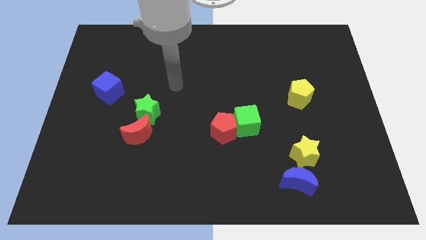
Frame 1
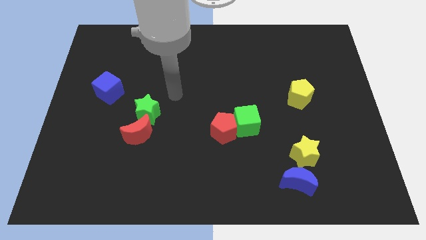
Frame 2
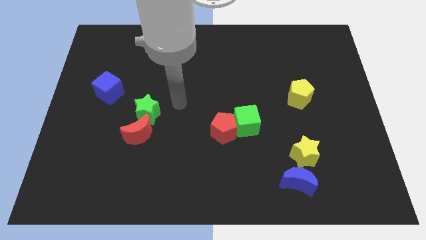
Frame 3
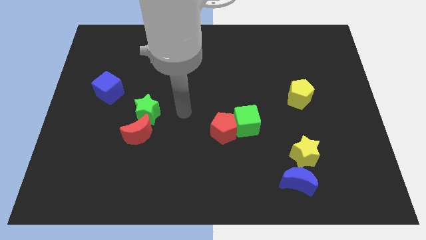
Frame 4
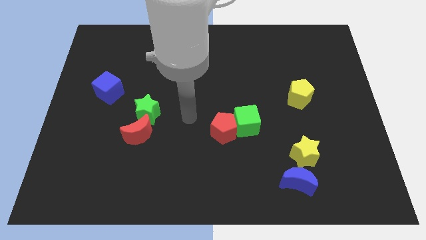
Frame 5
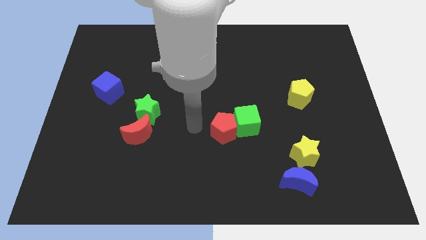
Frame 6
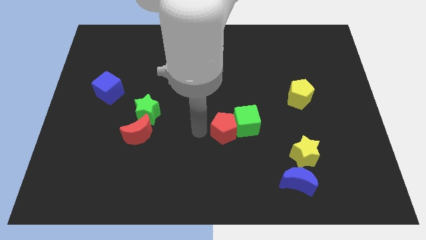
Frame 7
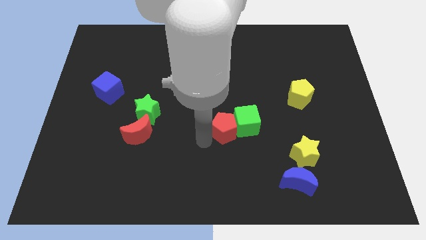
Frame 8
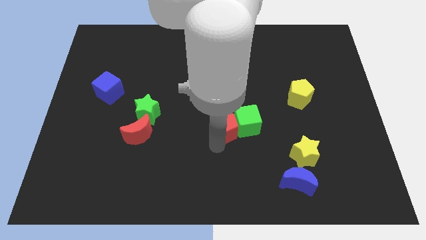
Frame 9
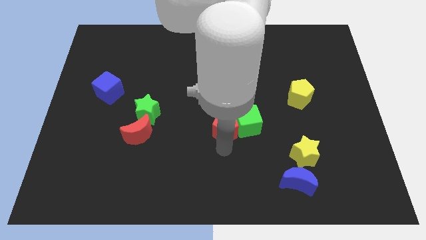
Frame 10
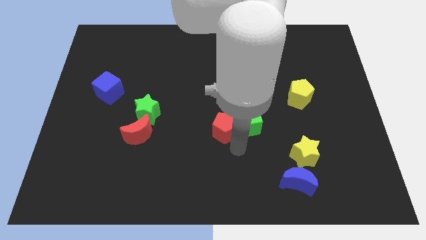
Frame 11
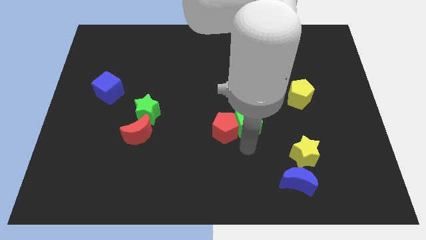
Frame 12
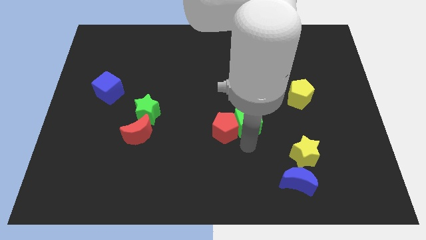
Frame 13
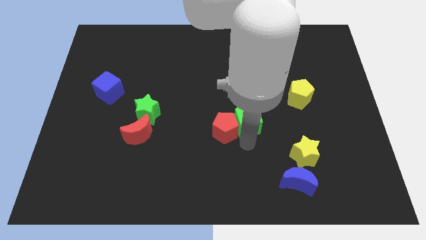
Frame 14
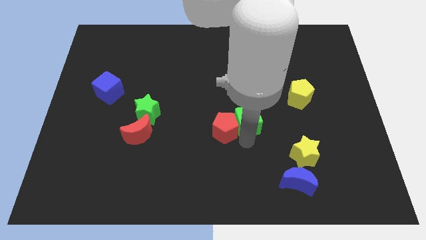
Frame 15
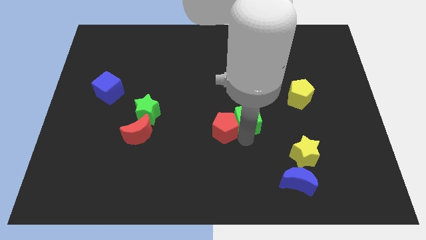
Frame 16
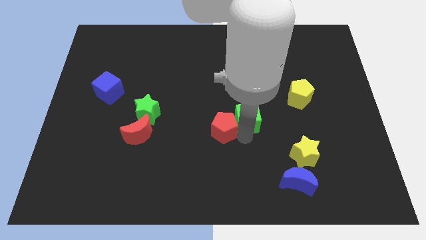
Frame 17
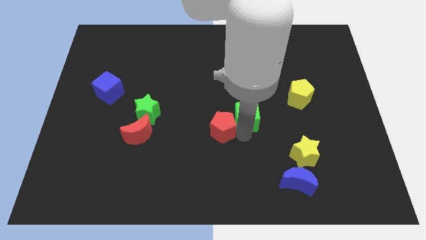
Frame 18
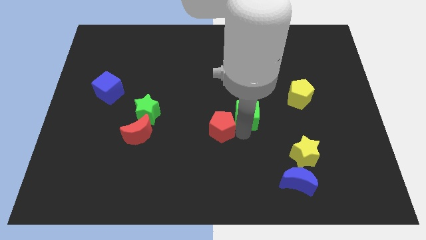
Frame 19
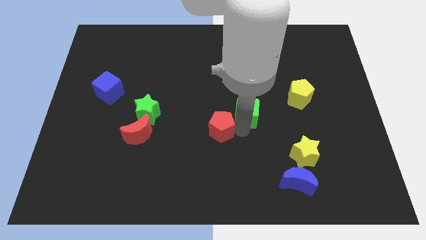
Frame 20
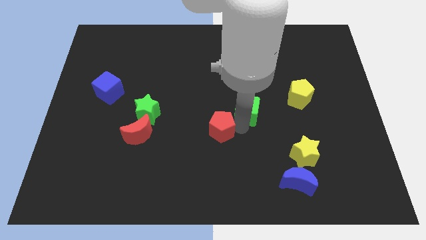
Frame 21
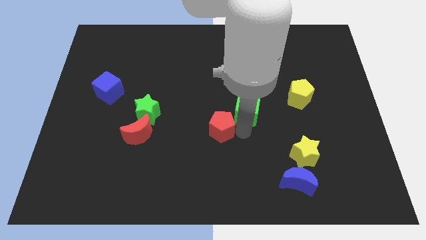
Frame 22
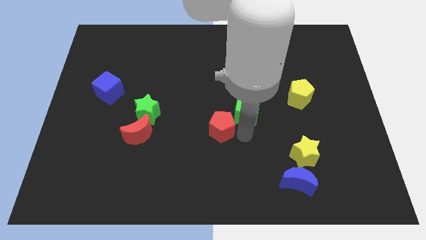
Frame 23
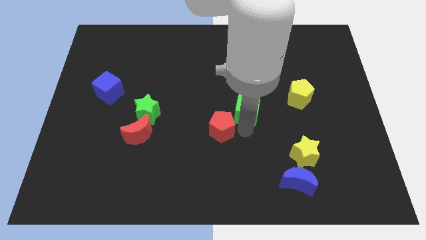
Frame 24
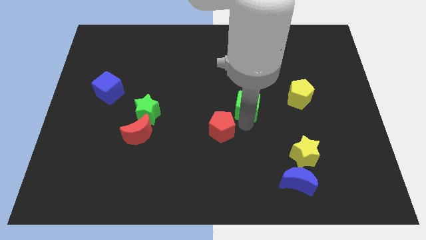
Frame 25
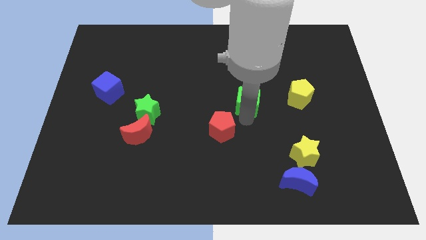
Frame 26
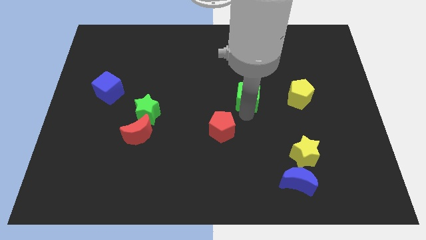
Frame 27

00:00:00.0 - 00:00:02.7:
slightly slide the green cube upwards

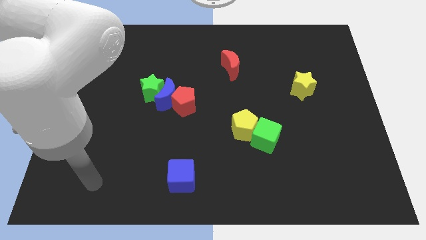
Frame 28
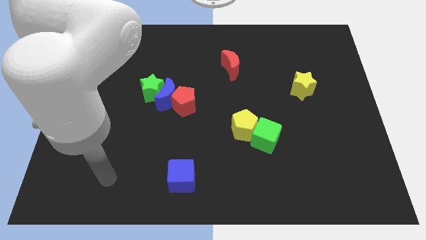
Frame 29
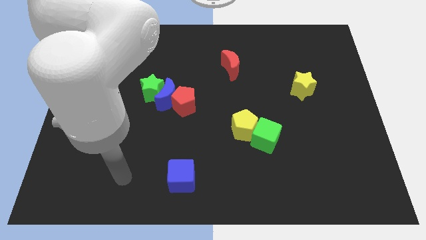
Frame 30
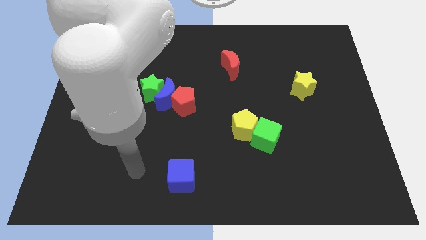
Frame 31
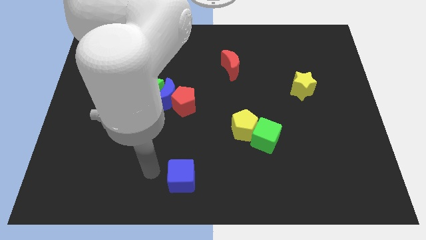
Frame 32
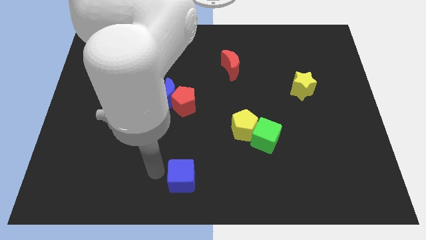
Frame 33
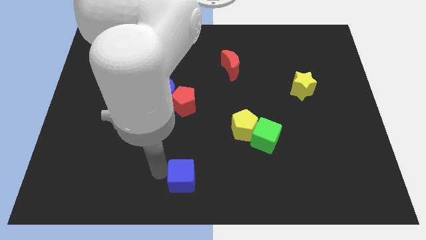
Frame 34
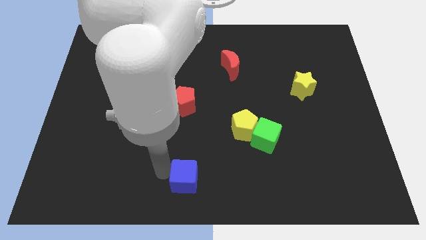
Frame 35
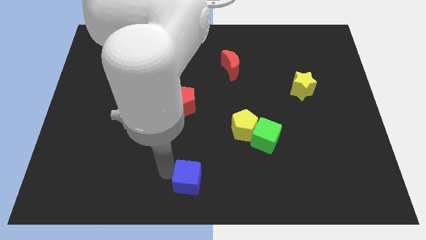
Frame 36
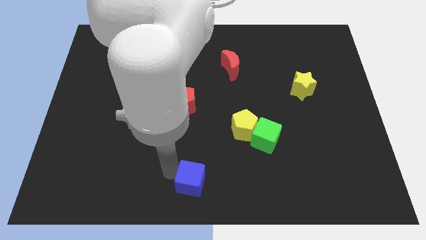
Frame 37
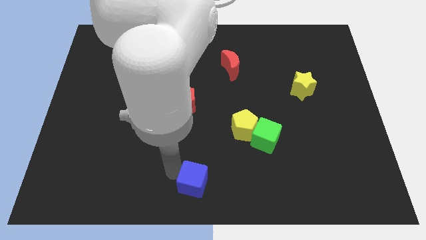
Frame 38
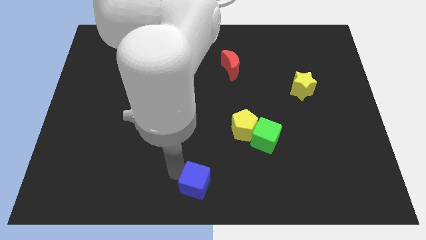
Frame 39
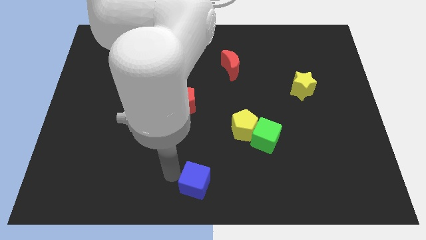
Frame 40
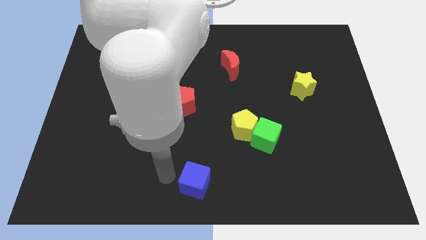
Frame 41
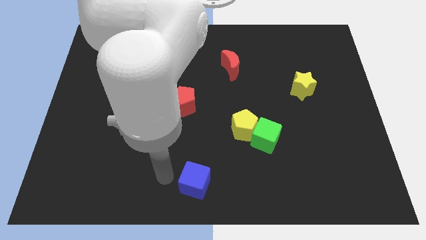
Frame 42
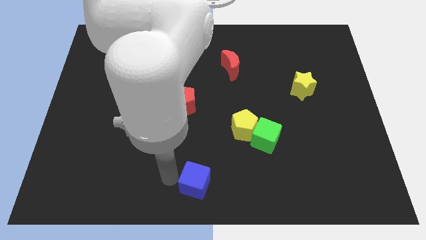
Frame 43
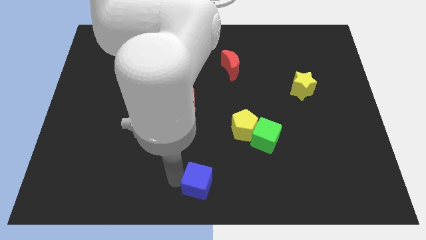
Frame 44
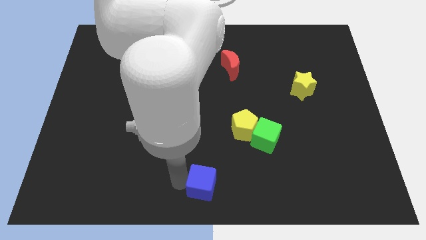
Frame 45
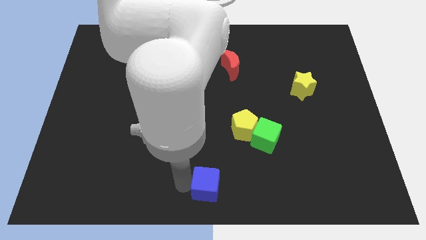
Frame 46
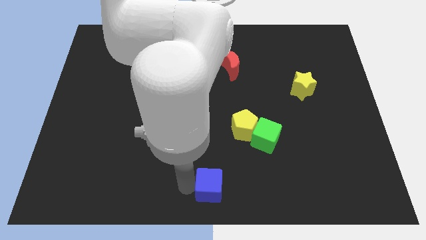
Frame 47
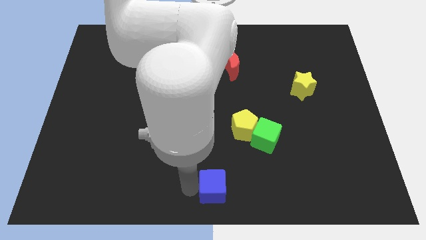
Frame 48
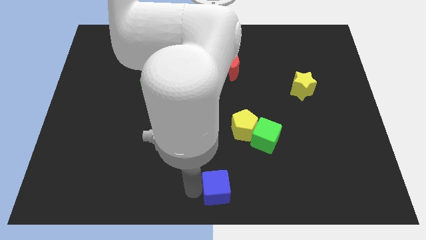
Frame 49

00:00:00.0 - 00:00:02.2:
slide the blue cube slightly right

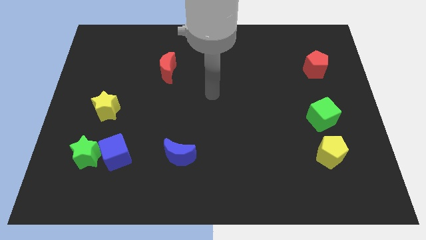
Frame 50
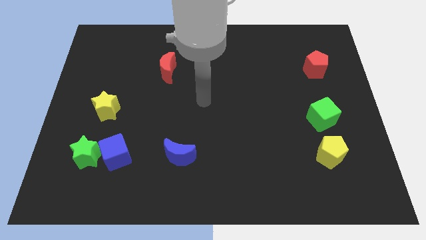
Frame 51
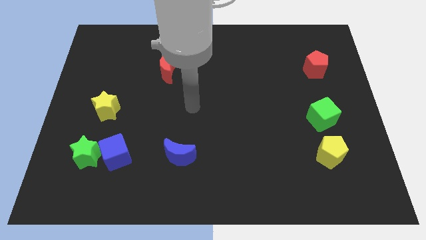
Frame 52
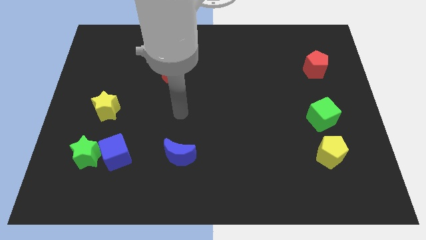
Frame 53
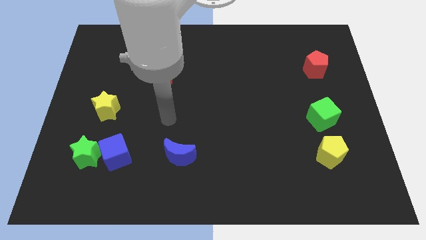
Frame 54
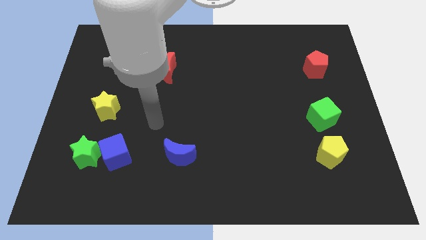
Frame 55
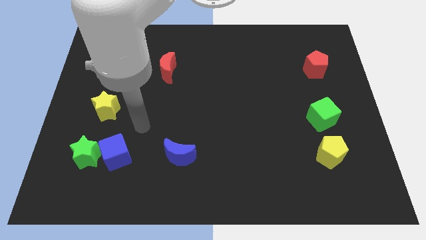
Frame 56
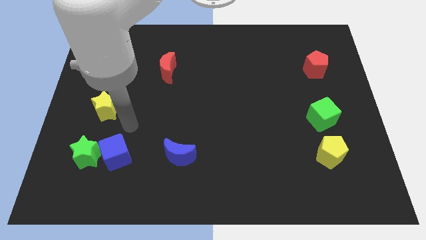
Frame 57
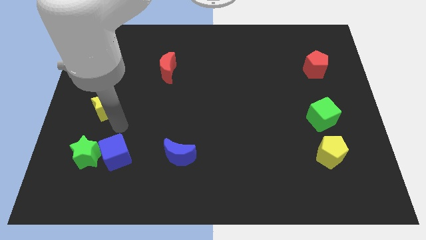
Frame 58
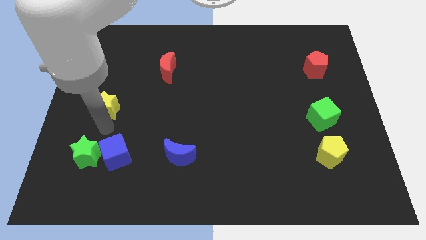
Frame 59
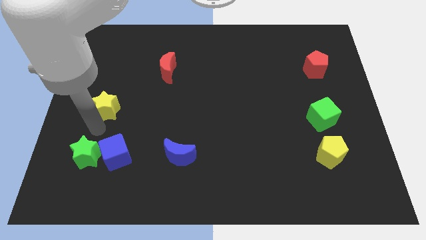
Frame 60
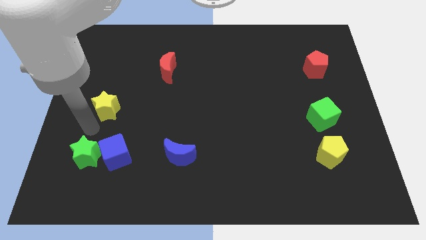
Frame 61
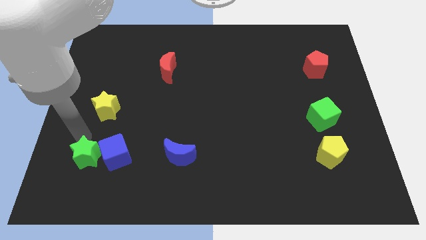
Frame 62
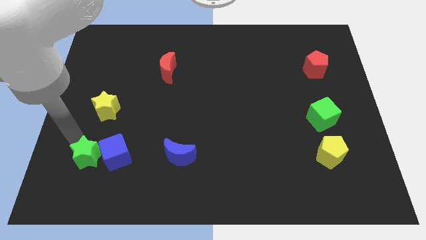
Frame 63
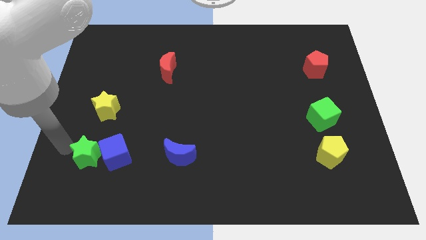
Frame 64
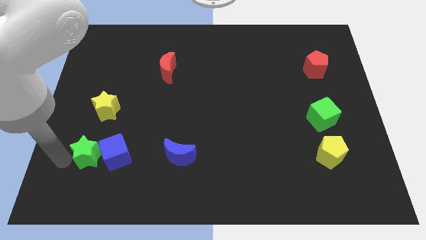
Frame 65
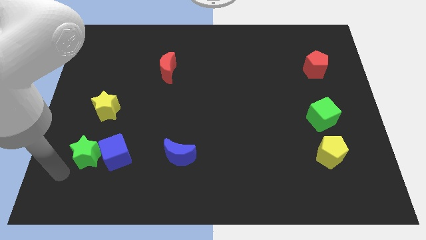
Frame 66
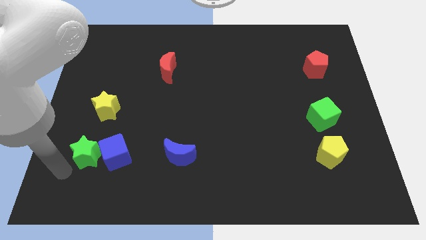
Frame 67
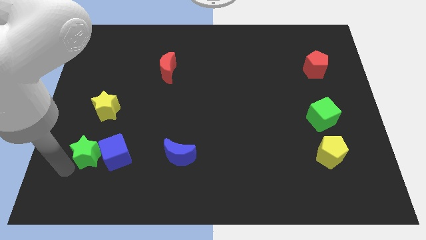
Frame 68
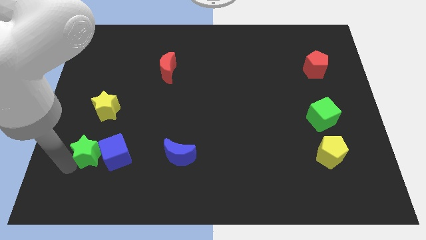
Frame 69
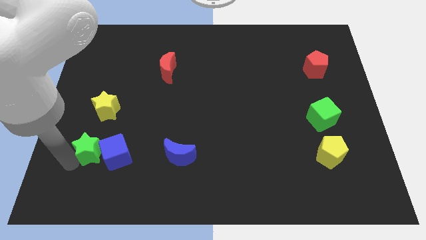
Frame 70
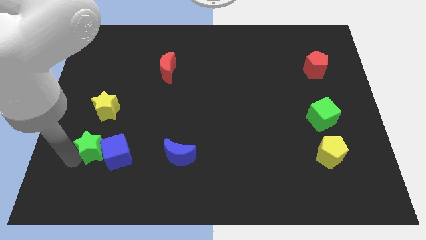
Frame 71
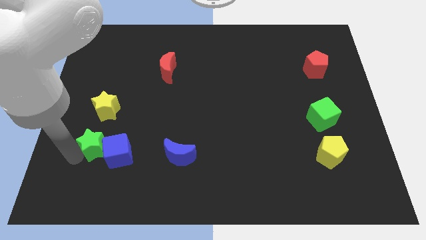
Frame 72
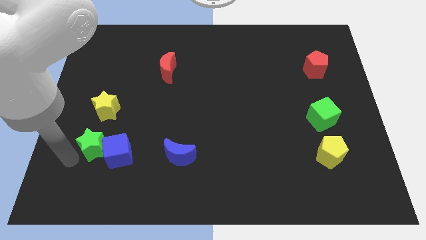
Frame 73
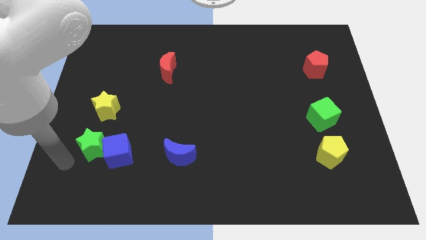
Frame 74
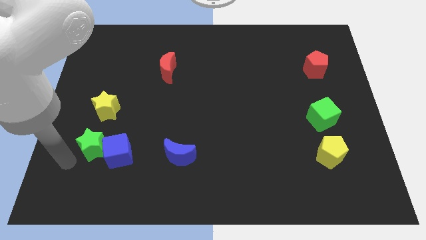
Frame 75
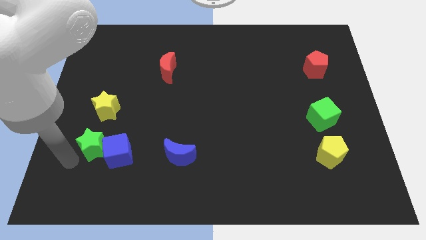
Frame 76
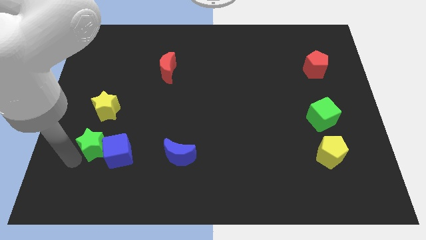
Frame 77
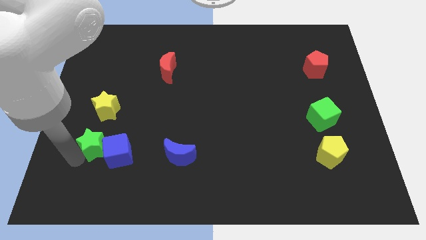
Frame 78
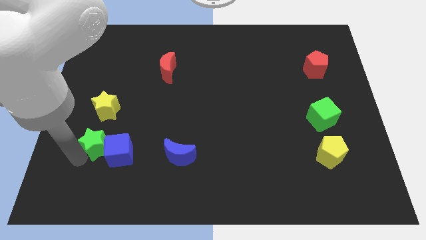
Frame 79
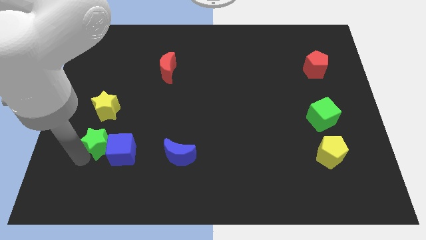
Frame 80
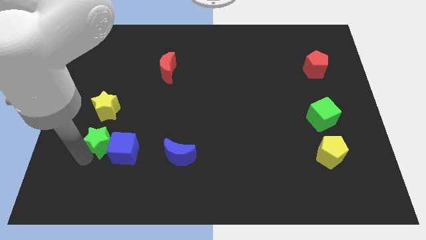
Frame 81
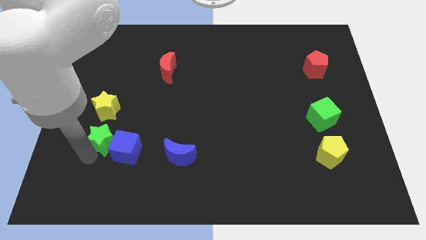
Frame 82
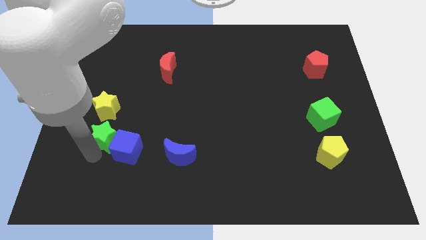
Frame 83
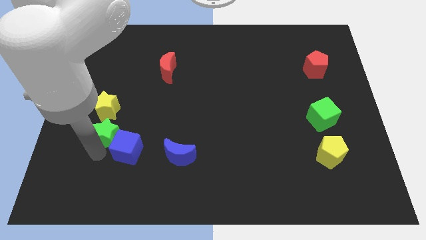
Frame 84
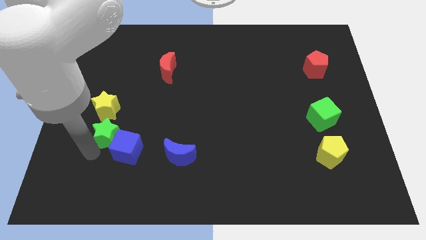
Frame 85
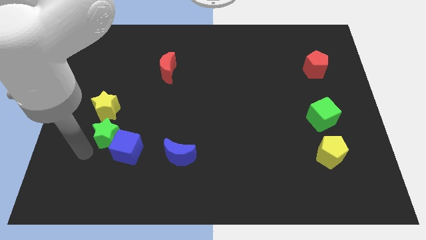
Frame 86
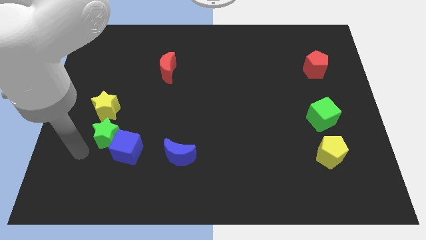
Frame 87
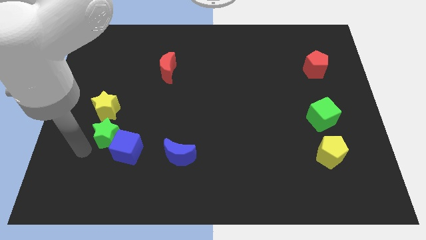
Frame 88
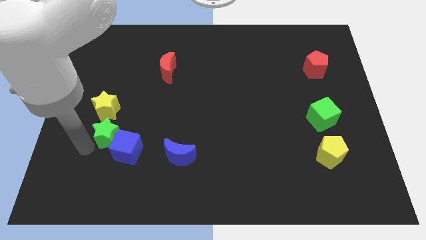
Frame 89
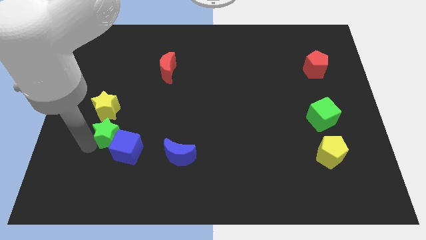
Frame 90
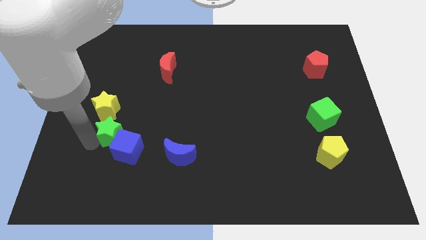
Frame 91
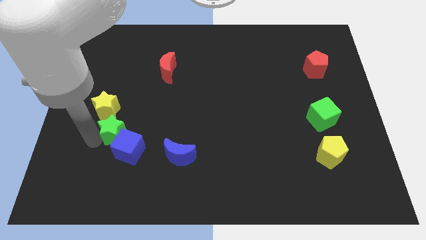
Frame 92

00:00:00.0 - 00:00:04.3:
push the green star slightly up and right diagonally
